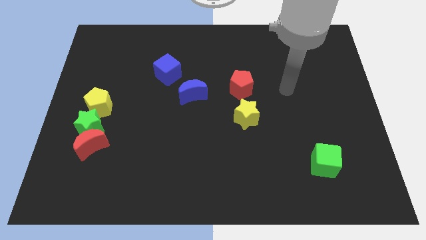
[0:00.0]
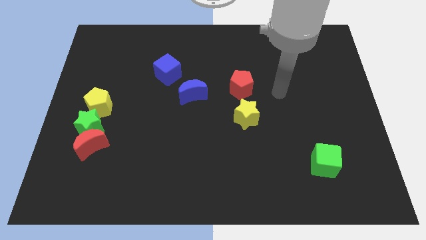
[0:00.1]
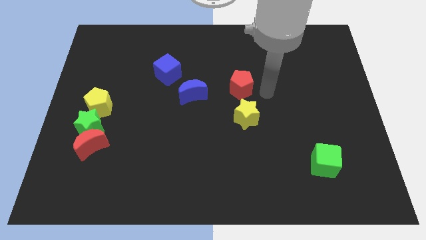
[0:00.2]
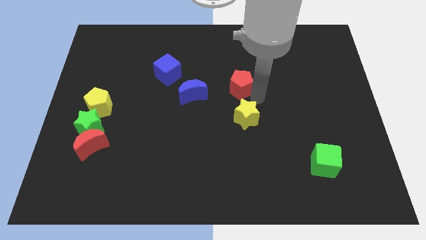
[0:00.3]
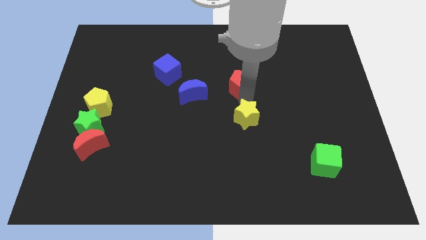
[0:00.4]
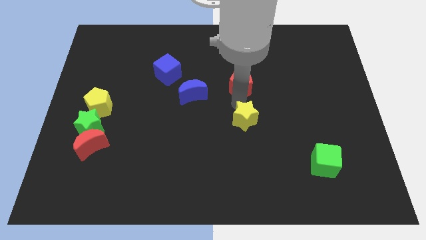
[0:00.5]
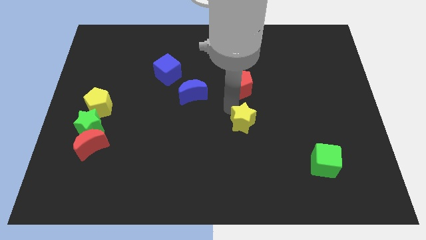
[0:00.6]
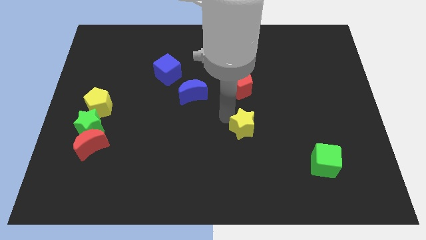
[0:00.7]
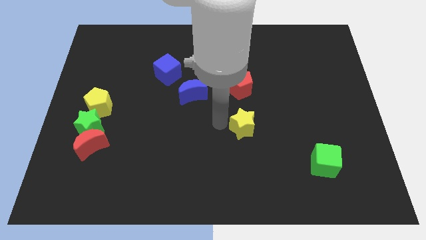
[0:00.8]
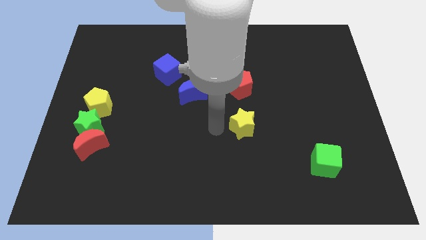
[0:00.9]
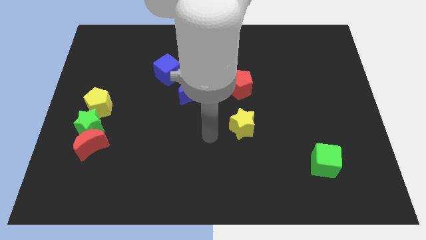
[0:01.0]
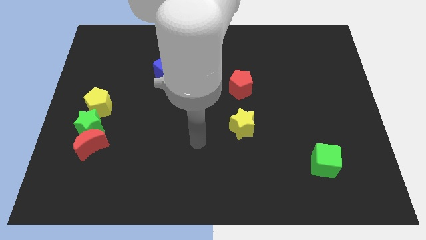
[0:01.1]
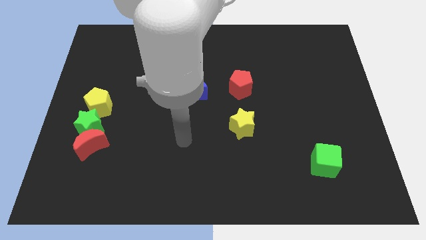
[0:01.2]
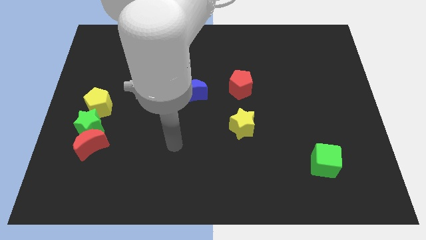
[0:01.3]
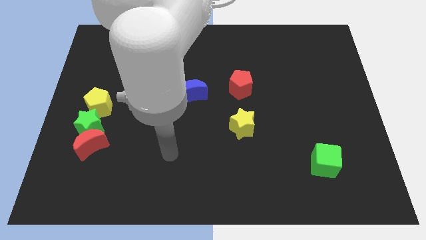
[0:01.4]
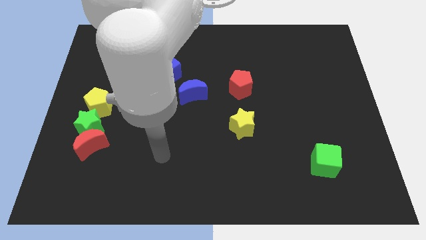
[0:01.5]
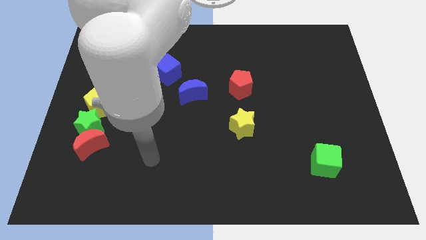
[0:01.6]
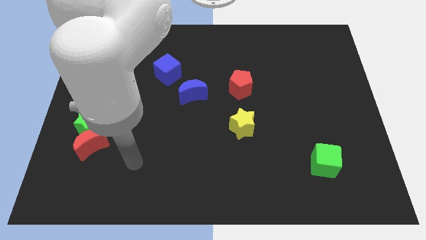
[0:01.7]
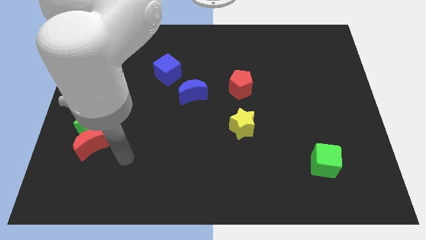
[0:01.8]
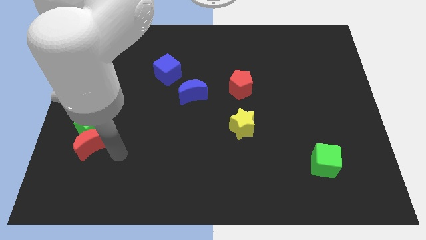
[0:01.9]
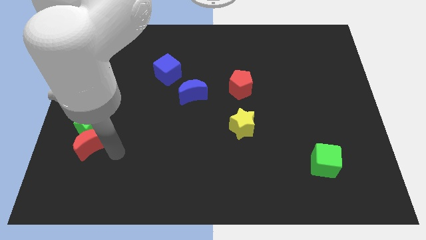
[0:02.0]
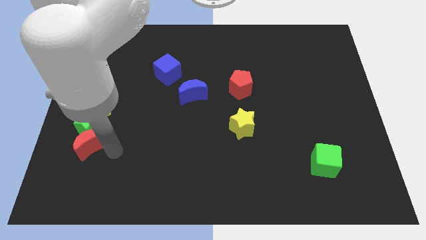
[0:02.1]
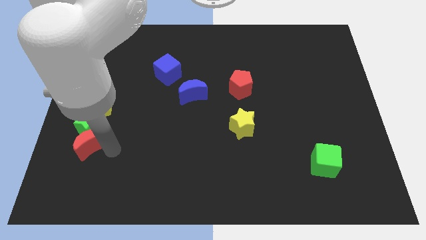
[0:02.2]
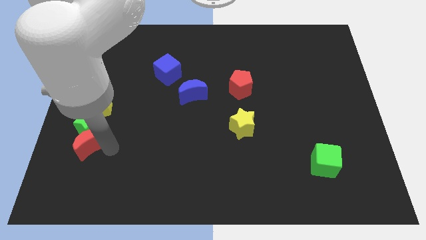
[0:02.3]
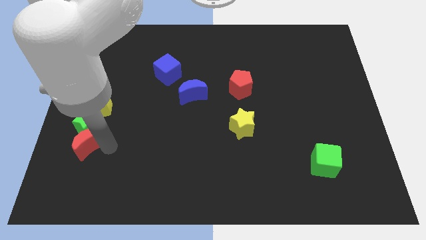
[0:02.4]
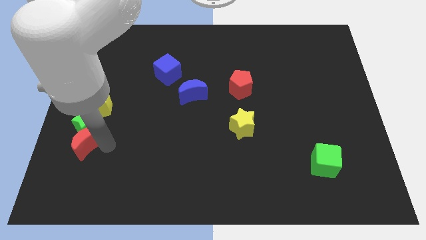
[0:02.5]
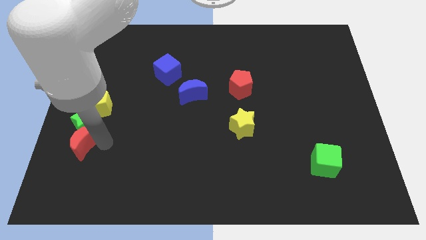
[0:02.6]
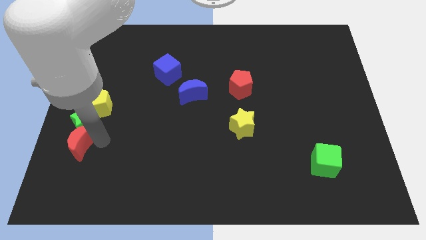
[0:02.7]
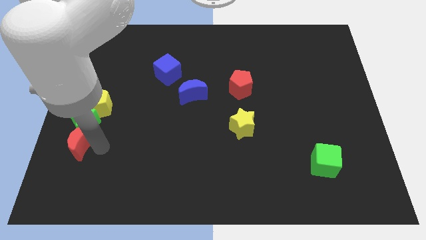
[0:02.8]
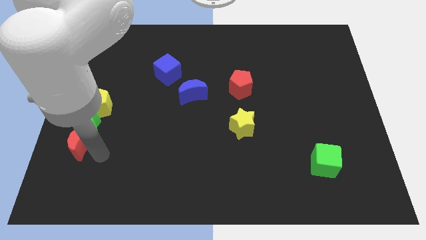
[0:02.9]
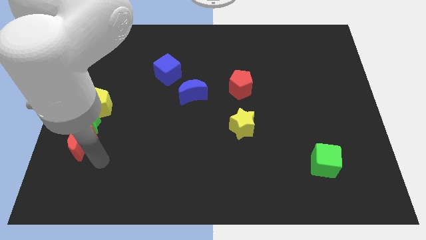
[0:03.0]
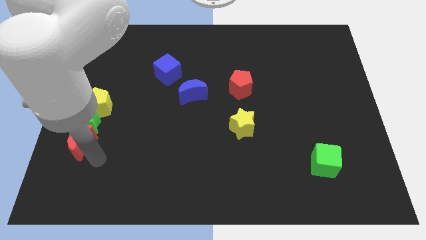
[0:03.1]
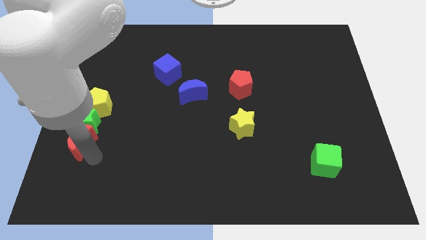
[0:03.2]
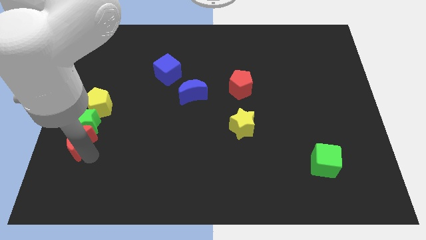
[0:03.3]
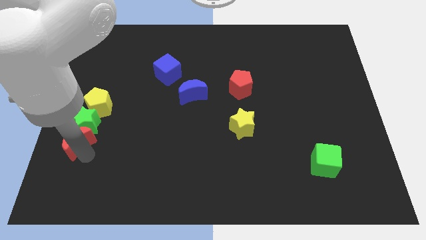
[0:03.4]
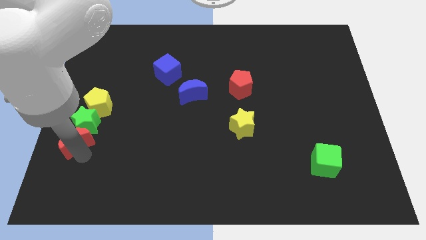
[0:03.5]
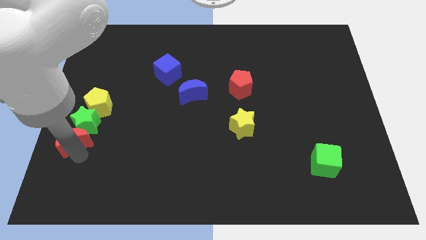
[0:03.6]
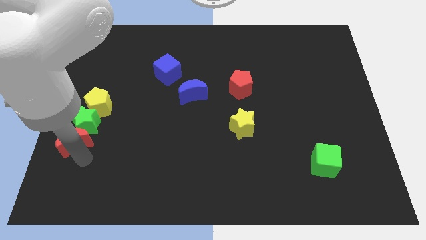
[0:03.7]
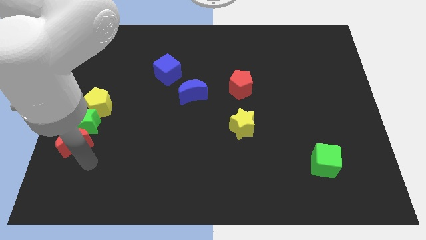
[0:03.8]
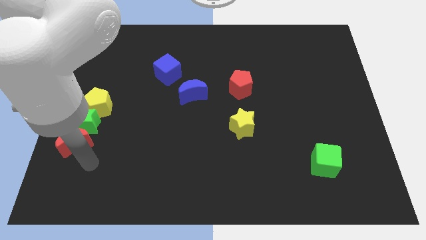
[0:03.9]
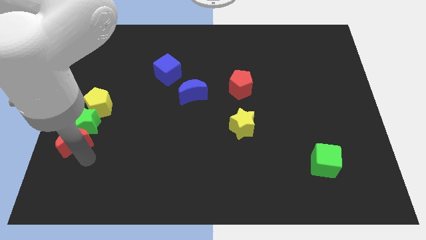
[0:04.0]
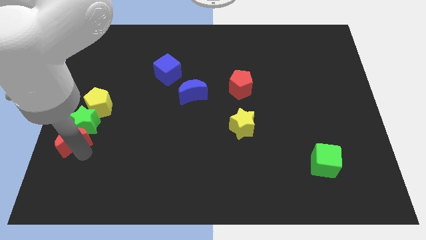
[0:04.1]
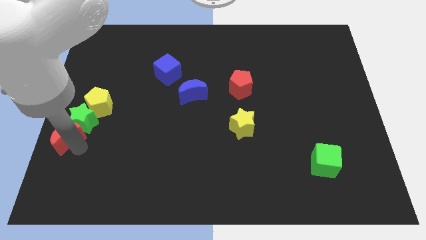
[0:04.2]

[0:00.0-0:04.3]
slide the red moon to the left side of the board

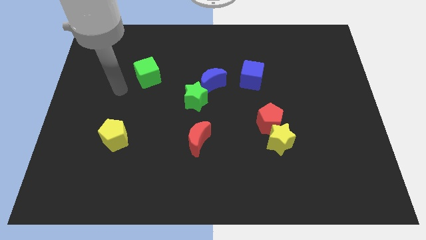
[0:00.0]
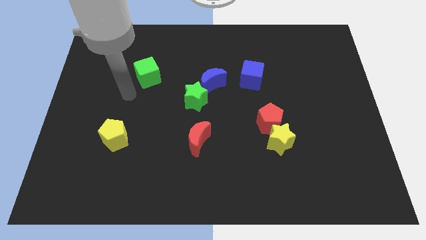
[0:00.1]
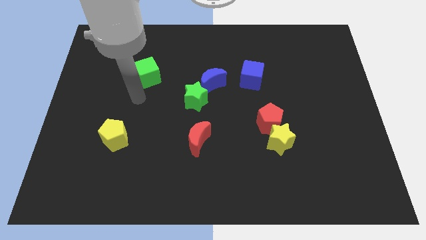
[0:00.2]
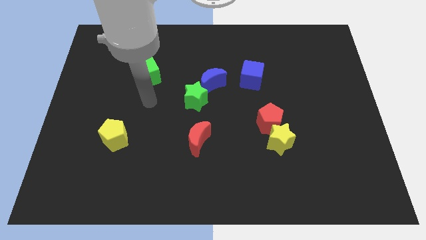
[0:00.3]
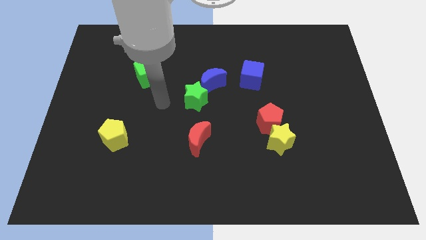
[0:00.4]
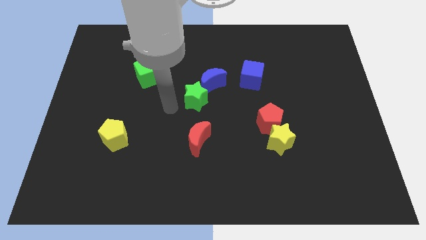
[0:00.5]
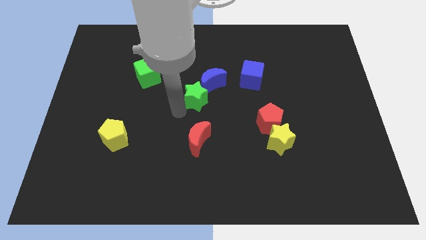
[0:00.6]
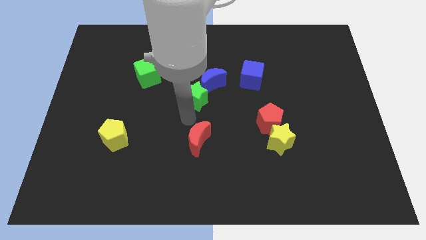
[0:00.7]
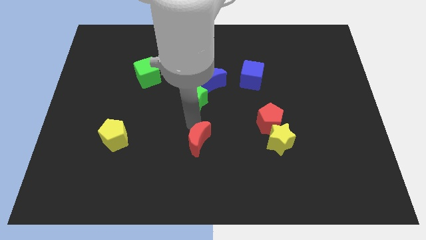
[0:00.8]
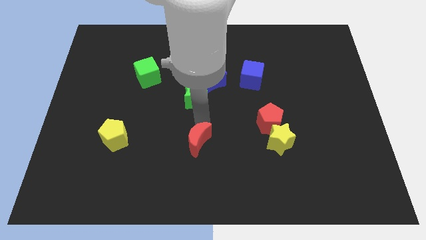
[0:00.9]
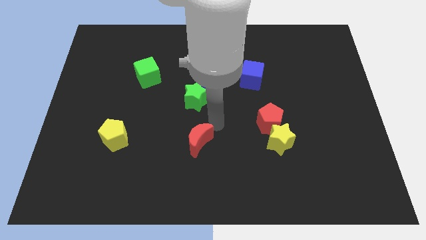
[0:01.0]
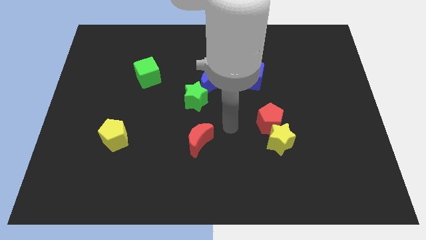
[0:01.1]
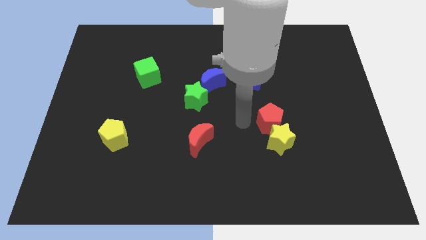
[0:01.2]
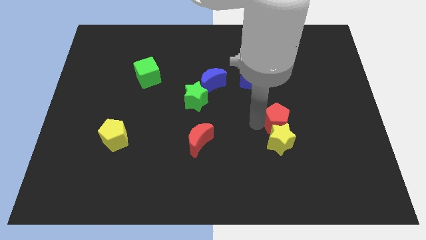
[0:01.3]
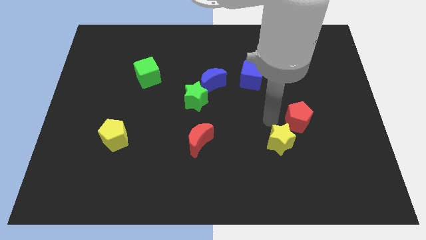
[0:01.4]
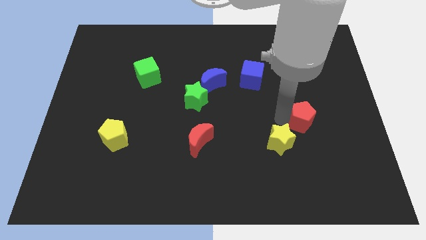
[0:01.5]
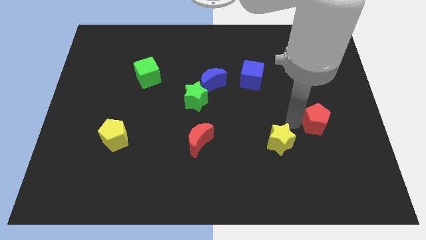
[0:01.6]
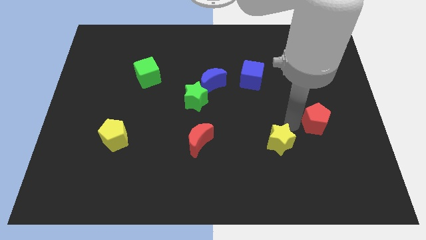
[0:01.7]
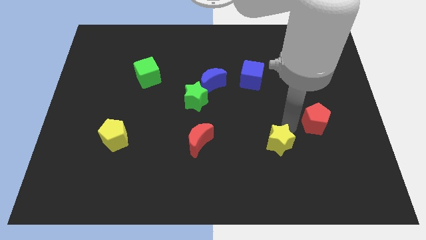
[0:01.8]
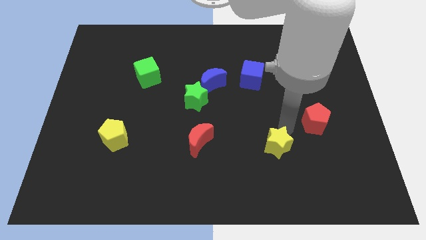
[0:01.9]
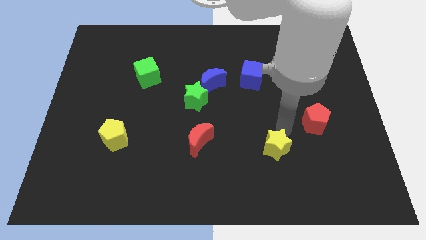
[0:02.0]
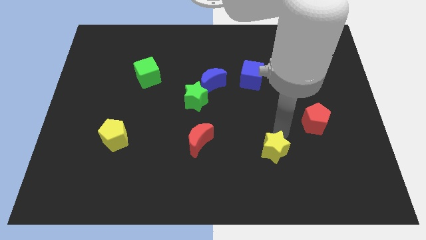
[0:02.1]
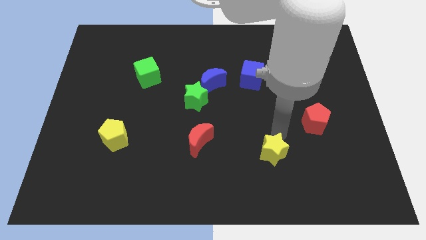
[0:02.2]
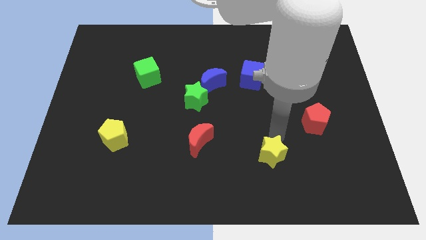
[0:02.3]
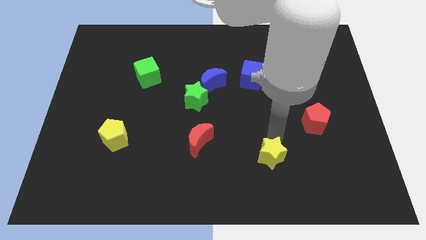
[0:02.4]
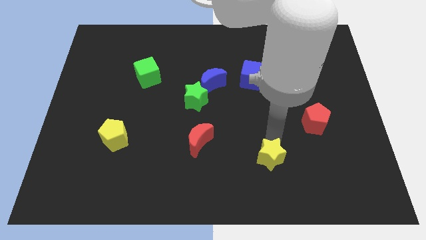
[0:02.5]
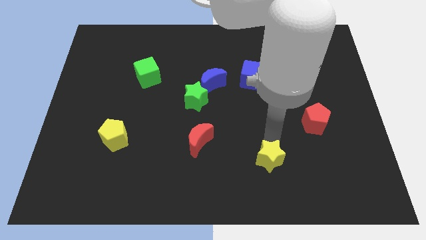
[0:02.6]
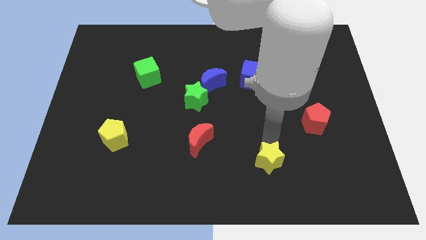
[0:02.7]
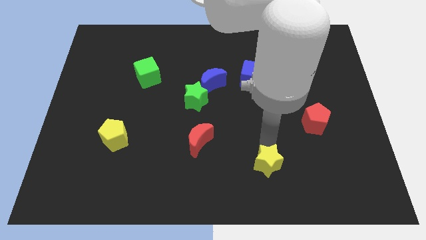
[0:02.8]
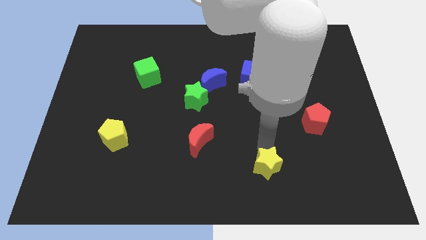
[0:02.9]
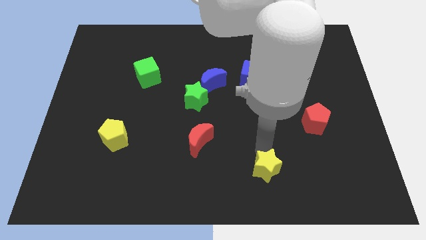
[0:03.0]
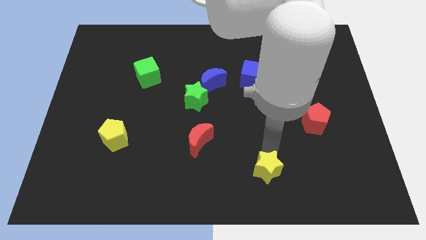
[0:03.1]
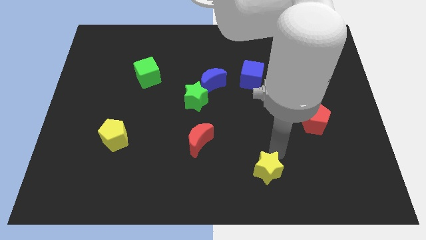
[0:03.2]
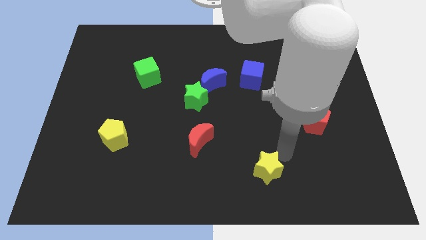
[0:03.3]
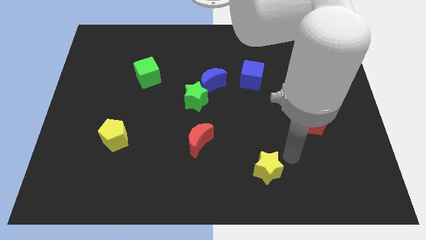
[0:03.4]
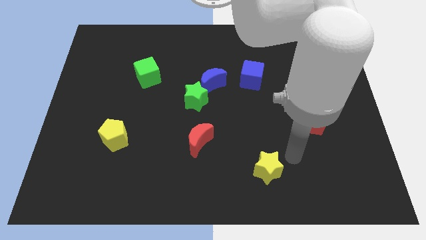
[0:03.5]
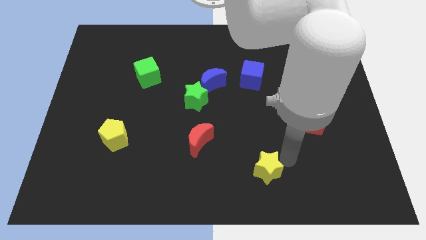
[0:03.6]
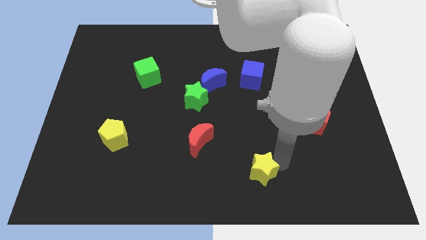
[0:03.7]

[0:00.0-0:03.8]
move the yellow star to the bottom side
